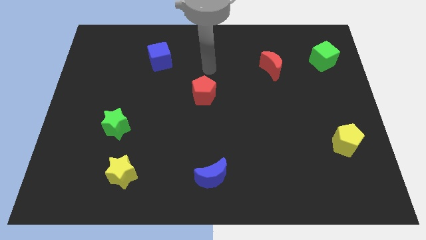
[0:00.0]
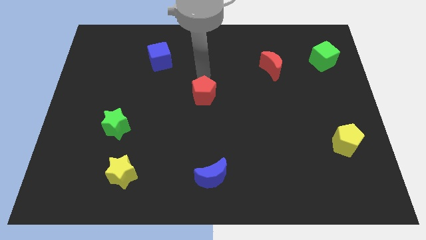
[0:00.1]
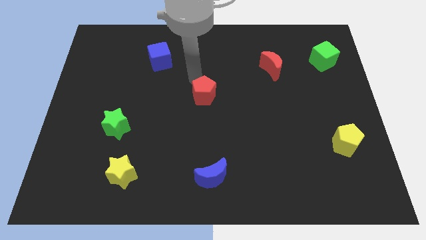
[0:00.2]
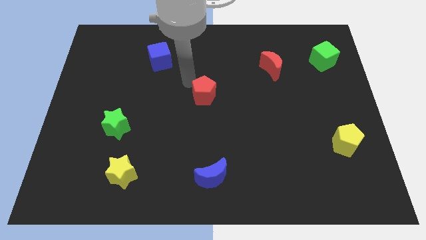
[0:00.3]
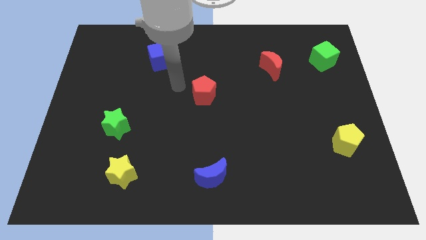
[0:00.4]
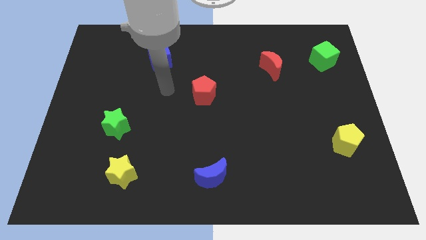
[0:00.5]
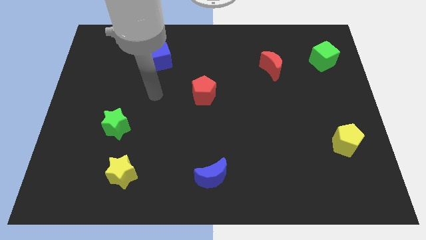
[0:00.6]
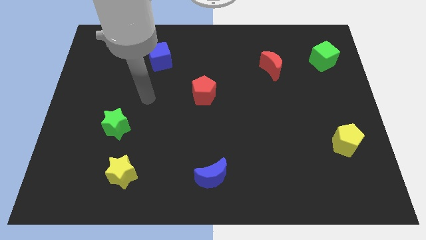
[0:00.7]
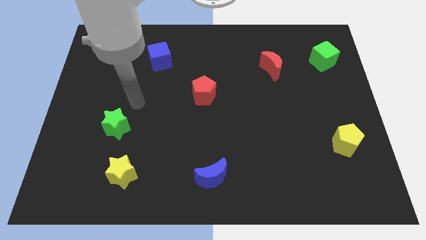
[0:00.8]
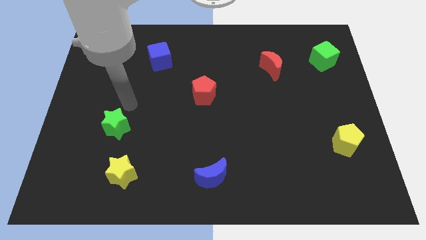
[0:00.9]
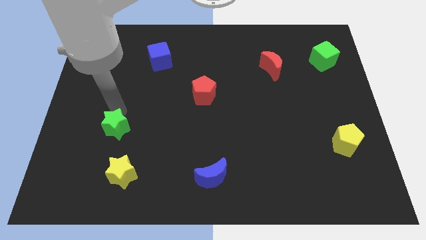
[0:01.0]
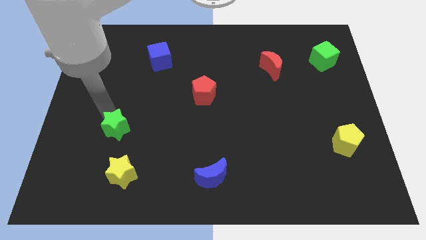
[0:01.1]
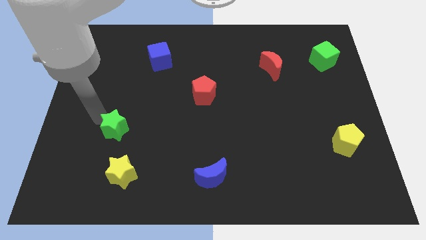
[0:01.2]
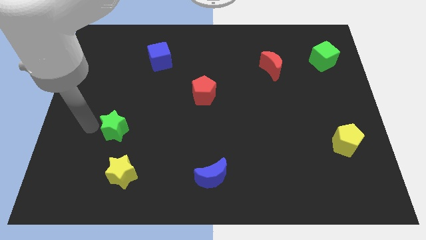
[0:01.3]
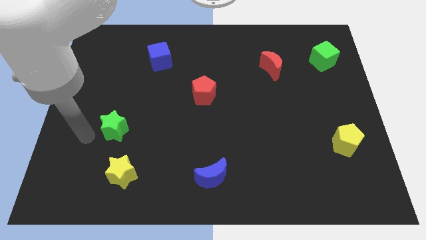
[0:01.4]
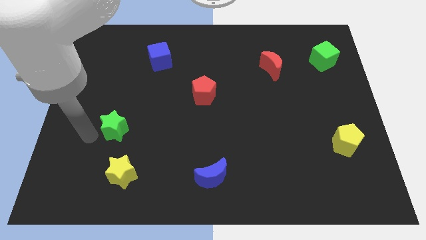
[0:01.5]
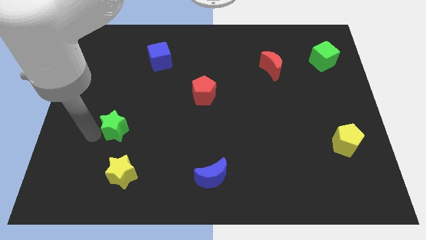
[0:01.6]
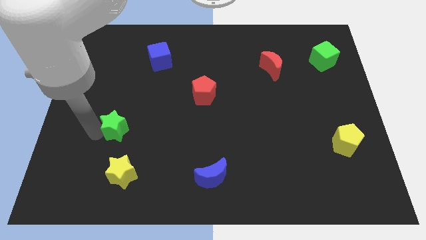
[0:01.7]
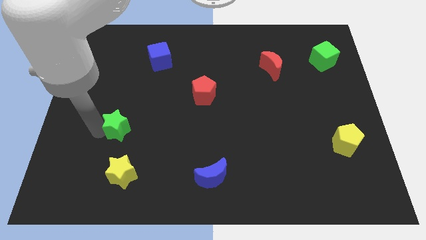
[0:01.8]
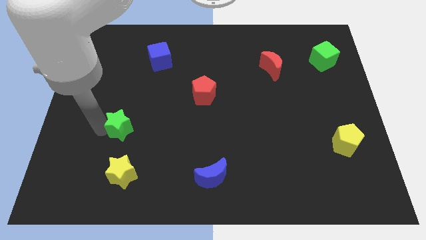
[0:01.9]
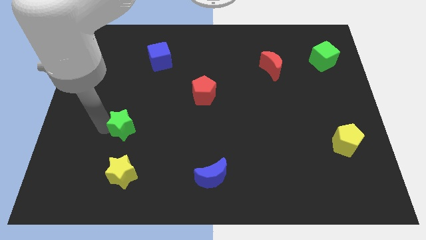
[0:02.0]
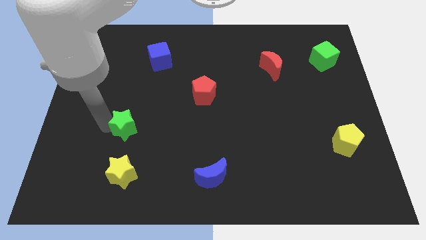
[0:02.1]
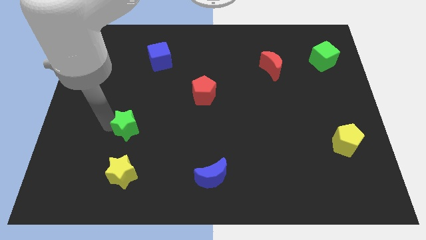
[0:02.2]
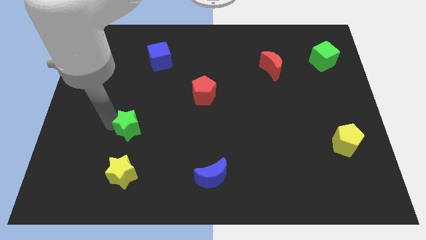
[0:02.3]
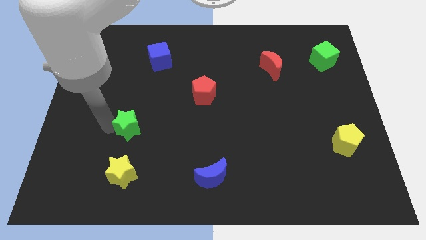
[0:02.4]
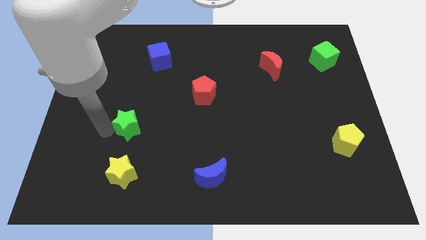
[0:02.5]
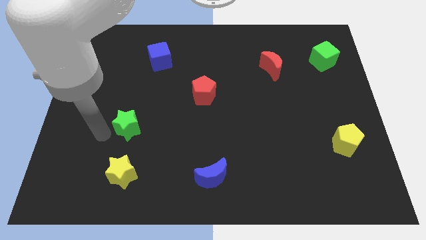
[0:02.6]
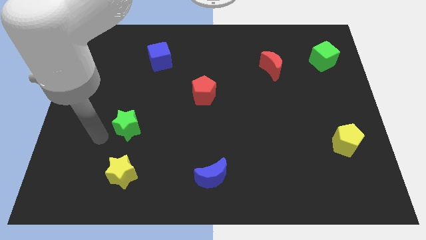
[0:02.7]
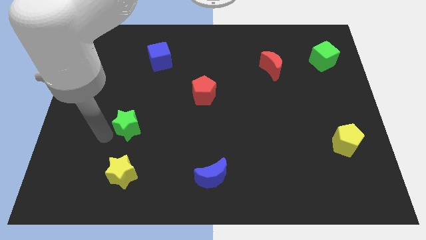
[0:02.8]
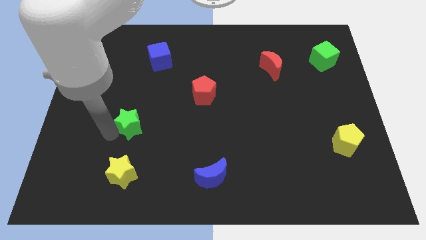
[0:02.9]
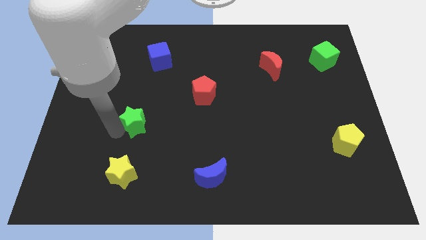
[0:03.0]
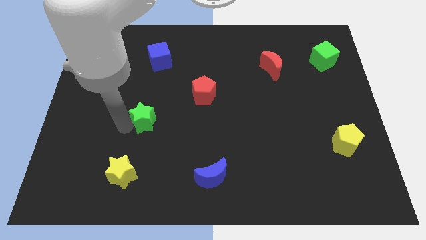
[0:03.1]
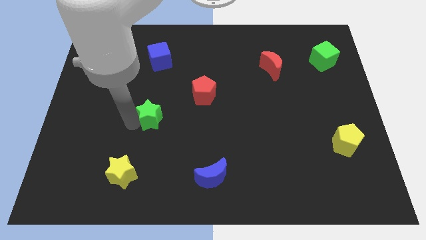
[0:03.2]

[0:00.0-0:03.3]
slightly slide the green star to the right

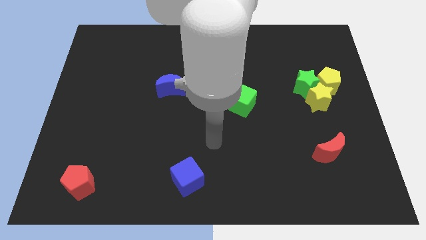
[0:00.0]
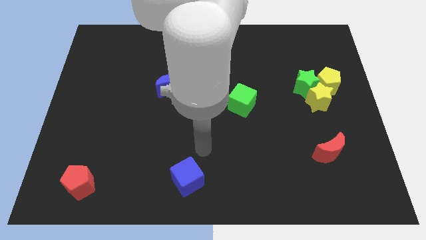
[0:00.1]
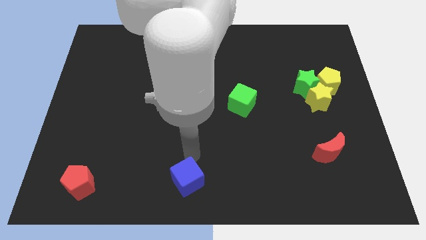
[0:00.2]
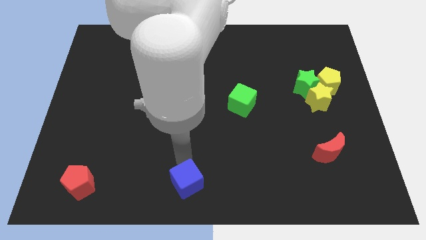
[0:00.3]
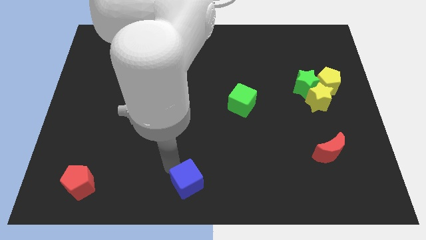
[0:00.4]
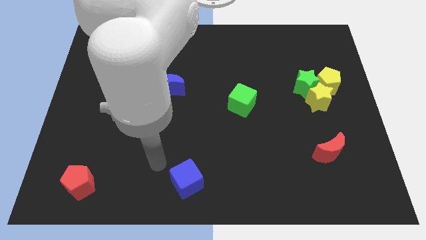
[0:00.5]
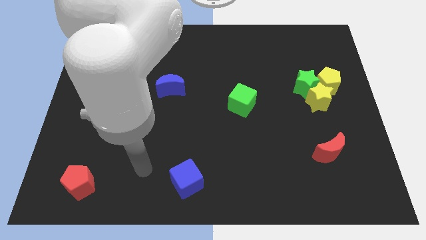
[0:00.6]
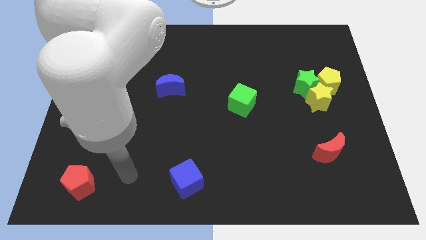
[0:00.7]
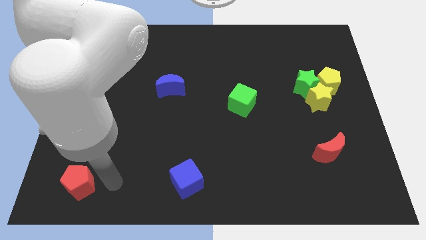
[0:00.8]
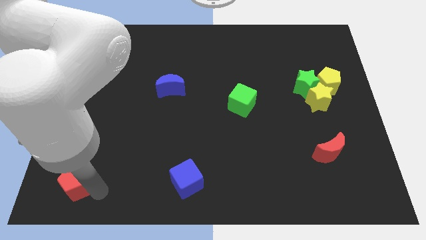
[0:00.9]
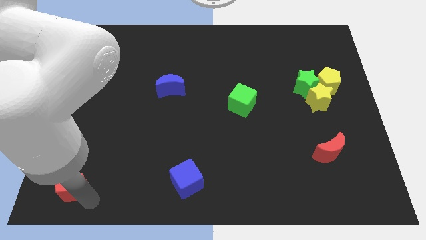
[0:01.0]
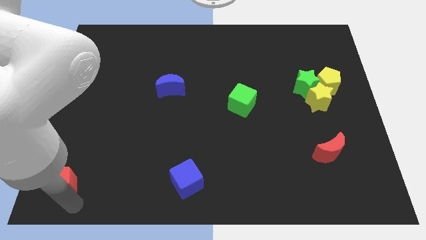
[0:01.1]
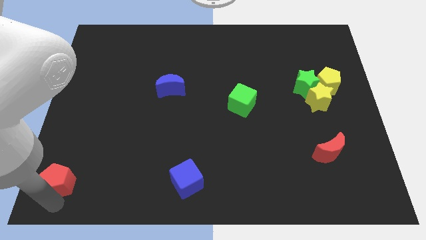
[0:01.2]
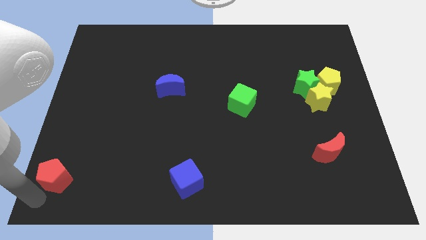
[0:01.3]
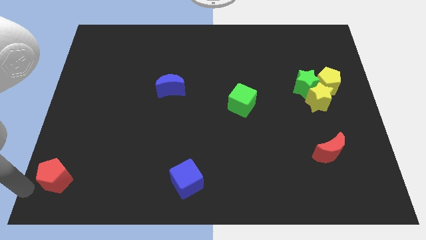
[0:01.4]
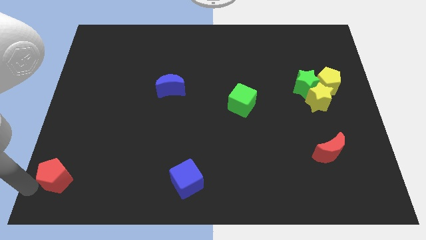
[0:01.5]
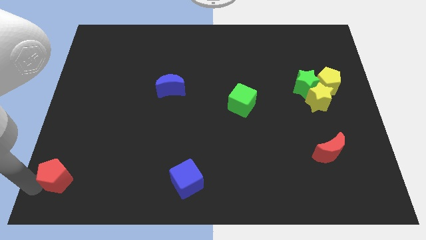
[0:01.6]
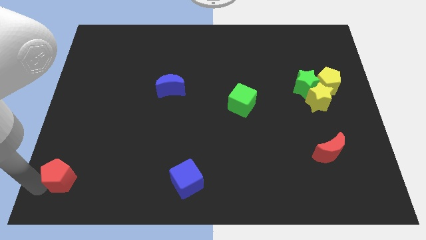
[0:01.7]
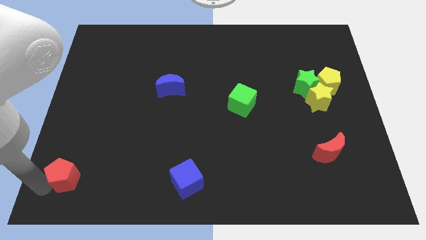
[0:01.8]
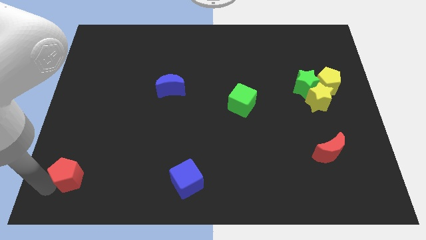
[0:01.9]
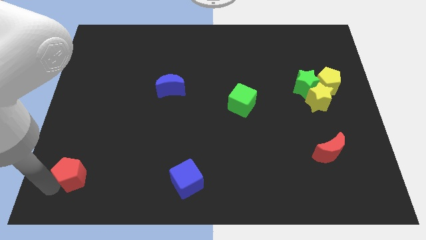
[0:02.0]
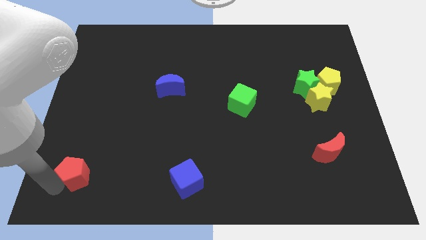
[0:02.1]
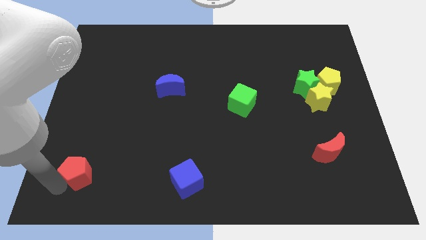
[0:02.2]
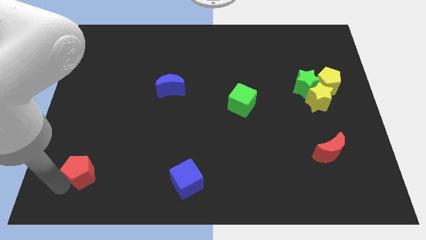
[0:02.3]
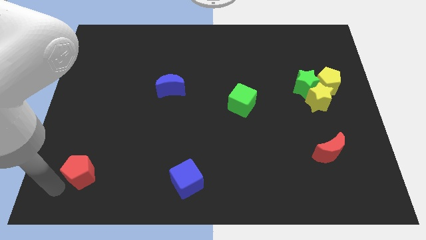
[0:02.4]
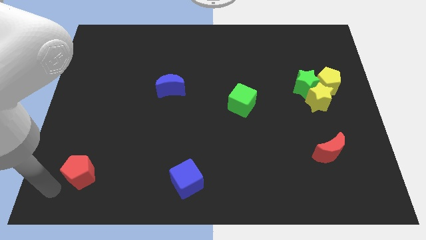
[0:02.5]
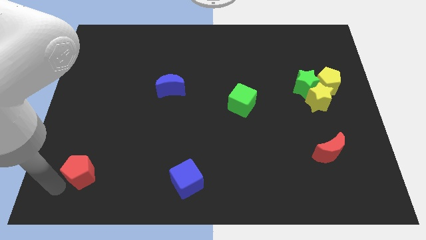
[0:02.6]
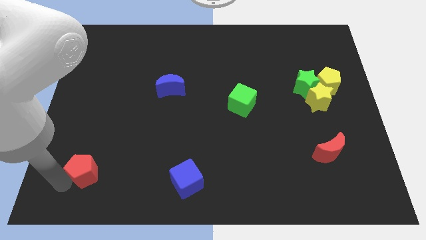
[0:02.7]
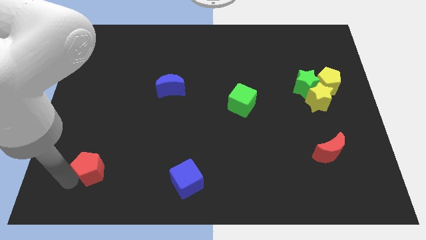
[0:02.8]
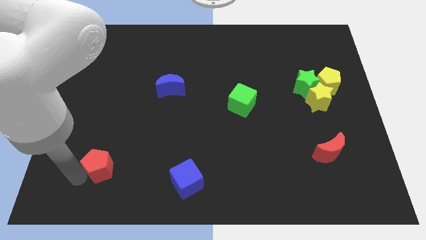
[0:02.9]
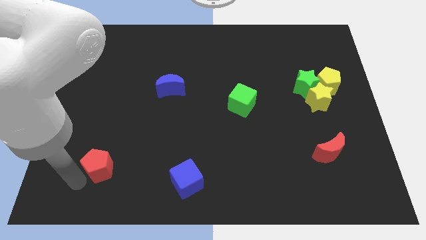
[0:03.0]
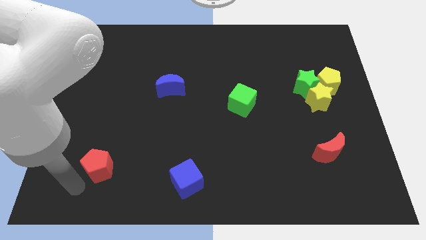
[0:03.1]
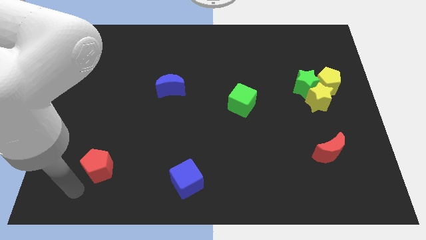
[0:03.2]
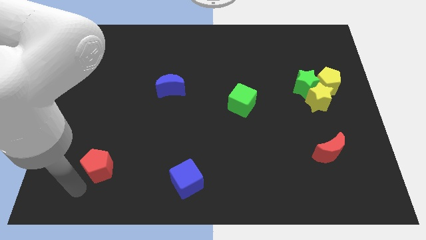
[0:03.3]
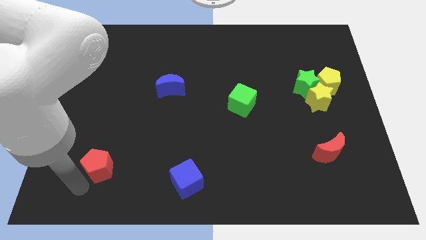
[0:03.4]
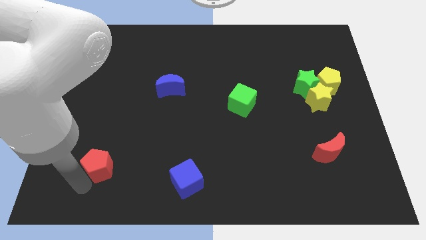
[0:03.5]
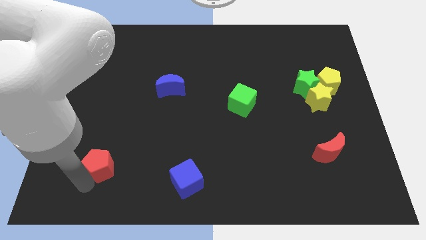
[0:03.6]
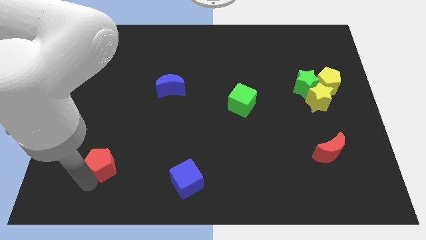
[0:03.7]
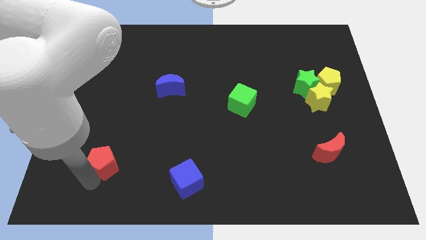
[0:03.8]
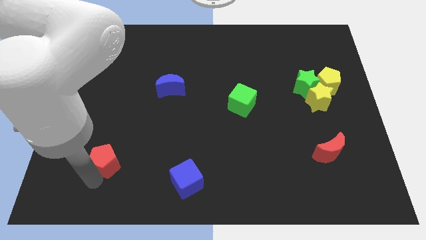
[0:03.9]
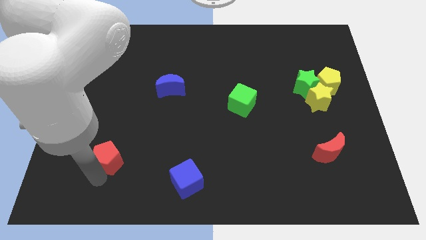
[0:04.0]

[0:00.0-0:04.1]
slightly slide the red pentagon diagonally upwards and to the right

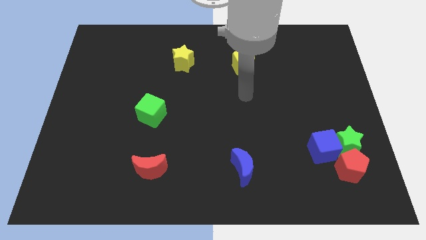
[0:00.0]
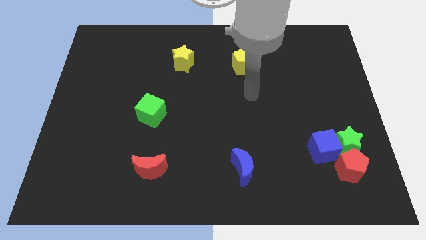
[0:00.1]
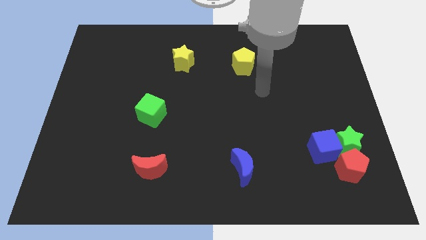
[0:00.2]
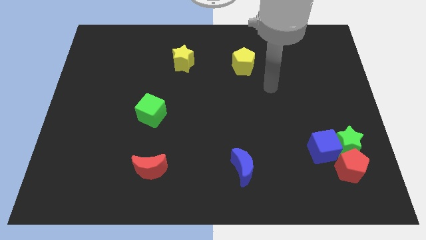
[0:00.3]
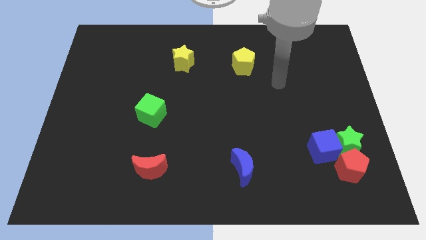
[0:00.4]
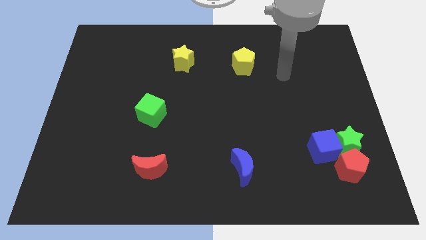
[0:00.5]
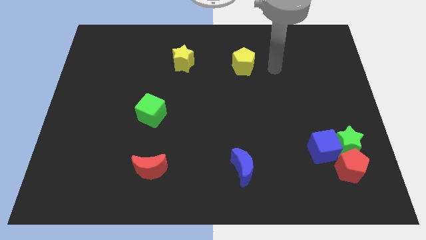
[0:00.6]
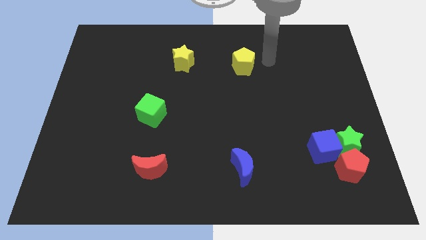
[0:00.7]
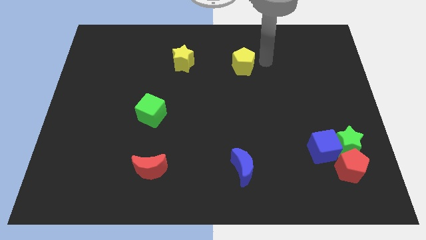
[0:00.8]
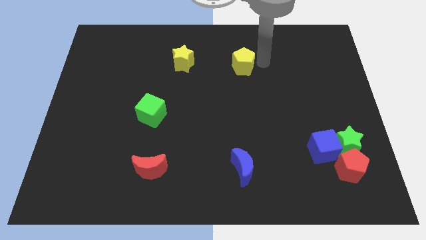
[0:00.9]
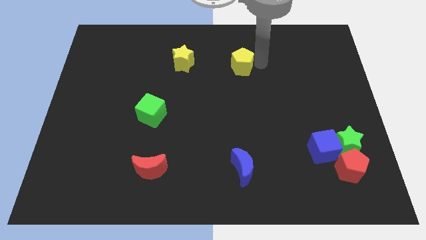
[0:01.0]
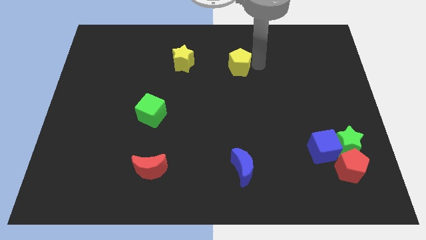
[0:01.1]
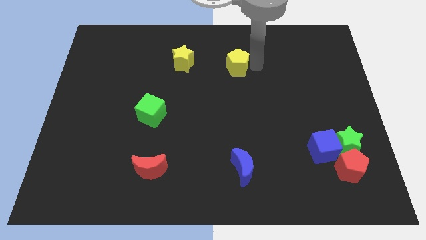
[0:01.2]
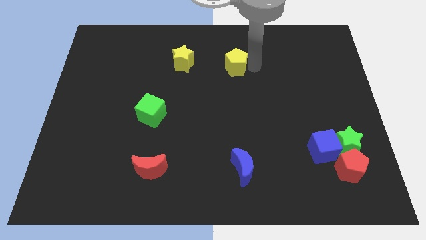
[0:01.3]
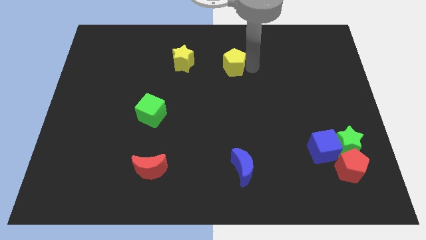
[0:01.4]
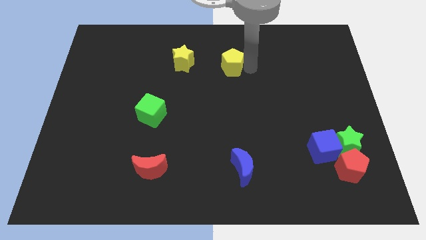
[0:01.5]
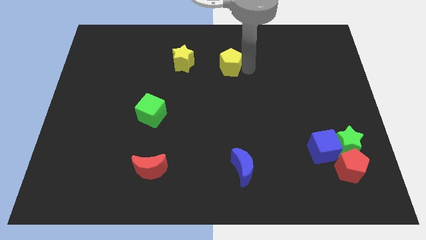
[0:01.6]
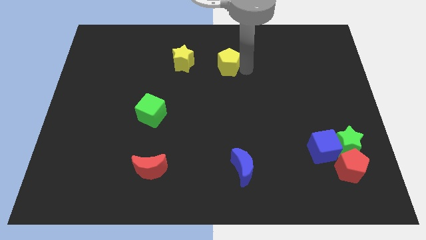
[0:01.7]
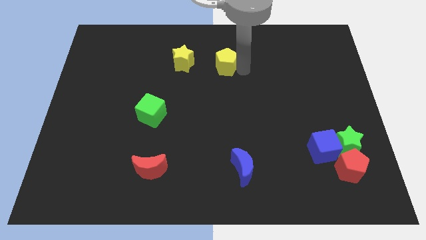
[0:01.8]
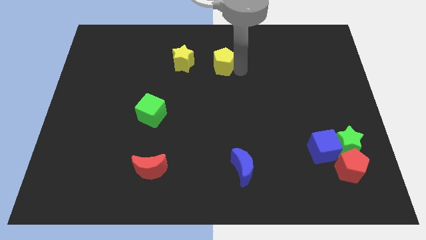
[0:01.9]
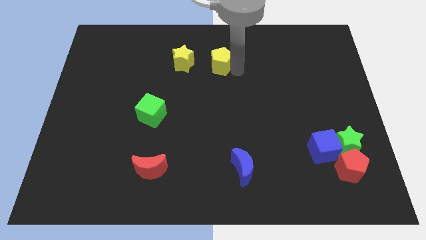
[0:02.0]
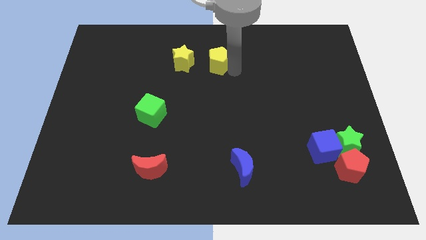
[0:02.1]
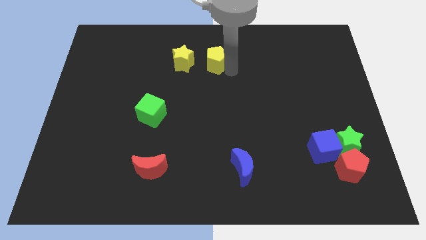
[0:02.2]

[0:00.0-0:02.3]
slightly move the yellow pentagon to the left
